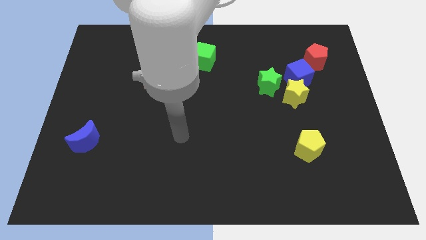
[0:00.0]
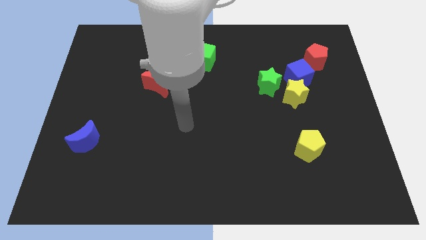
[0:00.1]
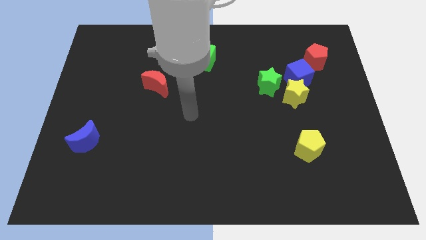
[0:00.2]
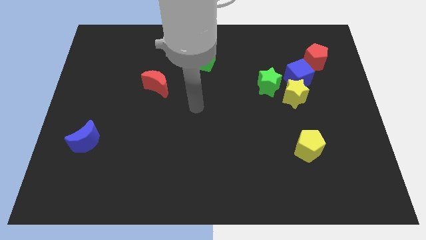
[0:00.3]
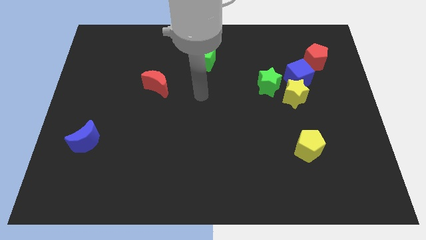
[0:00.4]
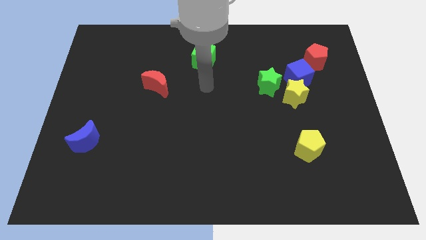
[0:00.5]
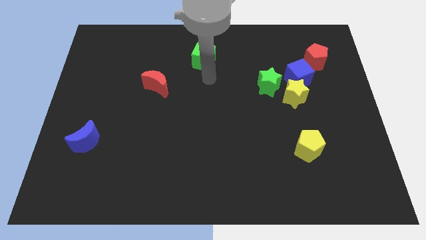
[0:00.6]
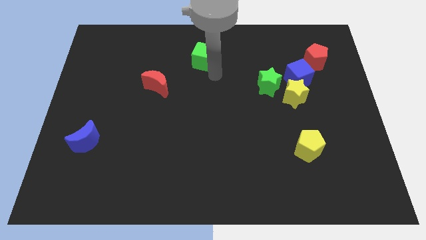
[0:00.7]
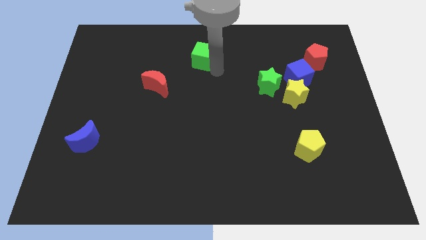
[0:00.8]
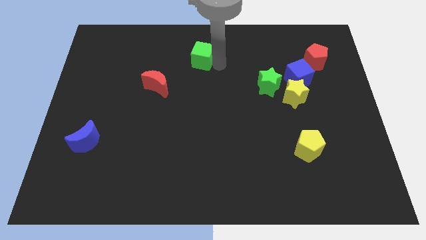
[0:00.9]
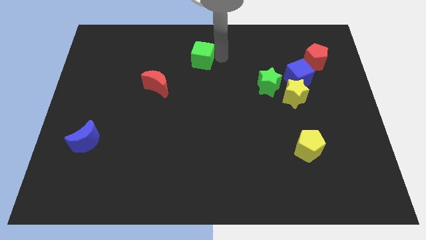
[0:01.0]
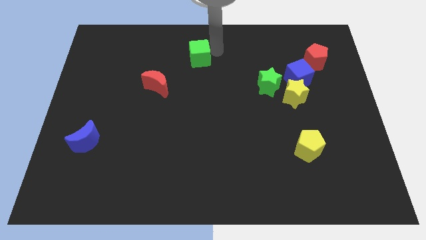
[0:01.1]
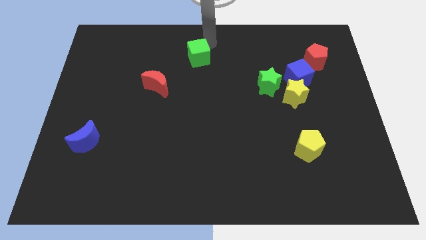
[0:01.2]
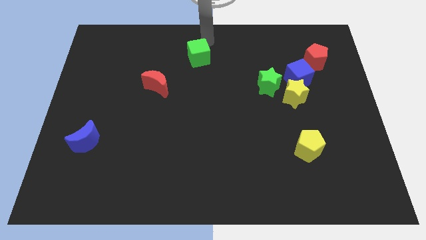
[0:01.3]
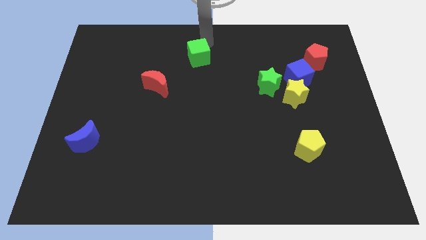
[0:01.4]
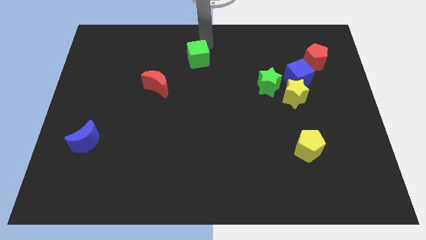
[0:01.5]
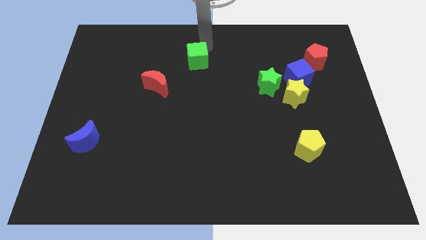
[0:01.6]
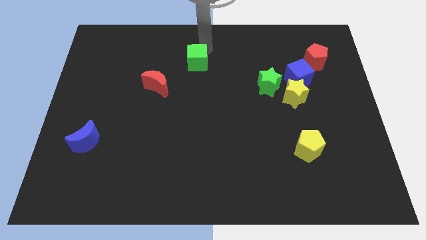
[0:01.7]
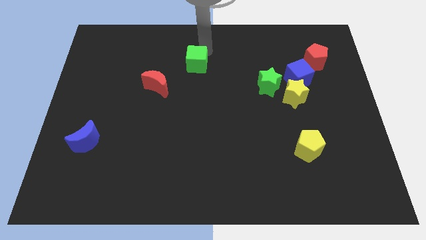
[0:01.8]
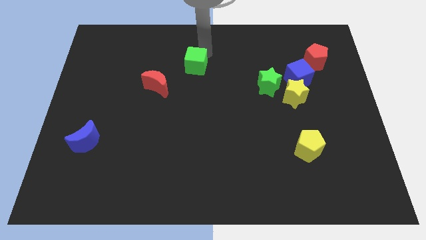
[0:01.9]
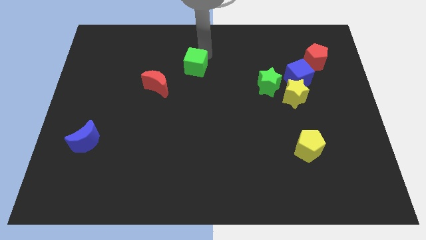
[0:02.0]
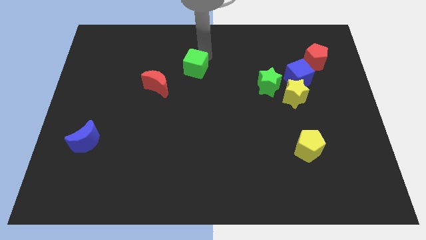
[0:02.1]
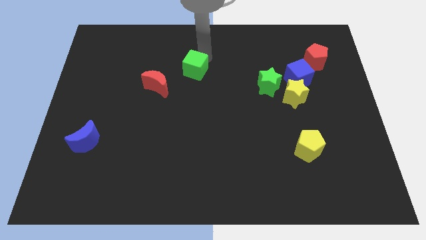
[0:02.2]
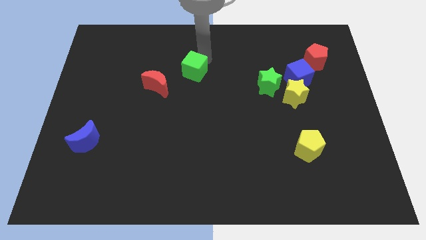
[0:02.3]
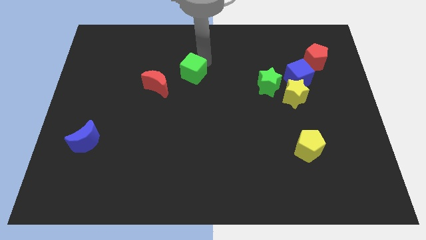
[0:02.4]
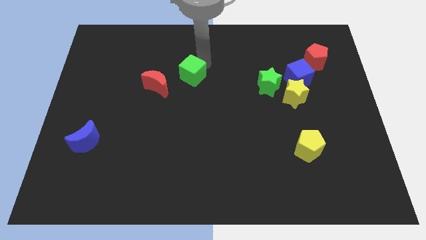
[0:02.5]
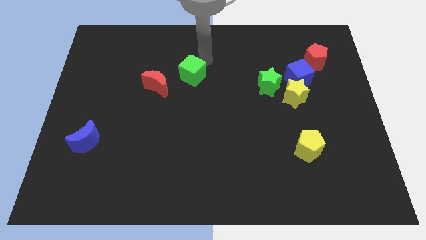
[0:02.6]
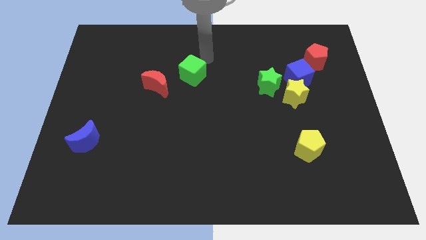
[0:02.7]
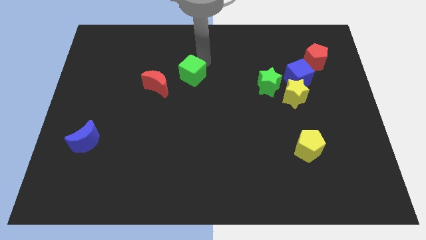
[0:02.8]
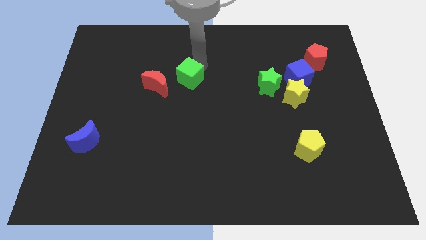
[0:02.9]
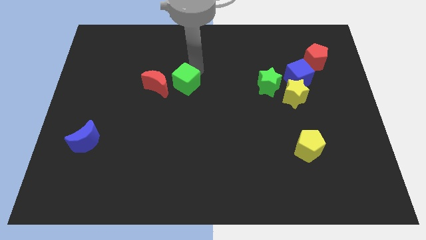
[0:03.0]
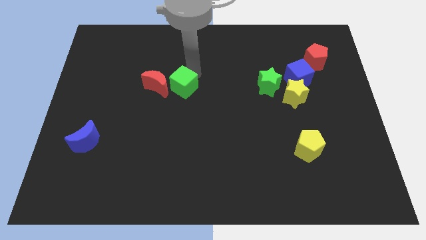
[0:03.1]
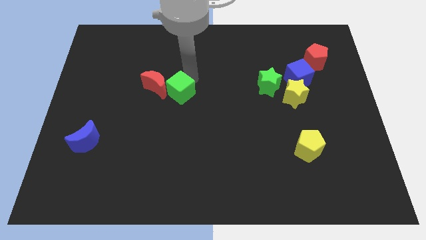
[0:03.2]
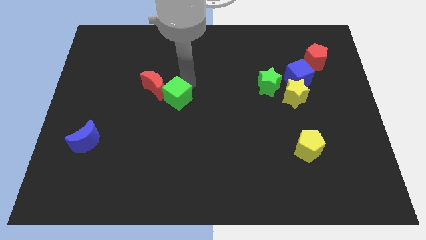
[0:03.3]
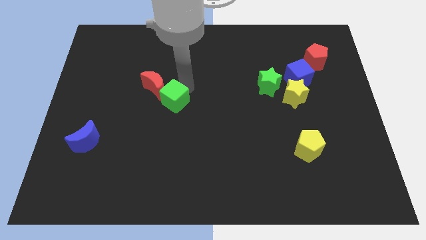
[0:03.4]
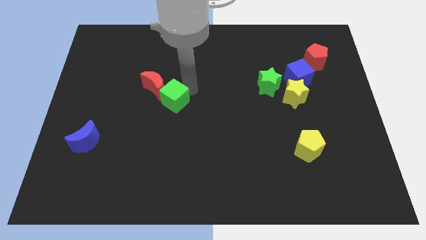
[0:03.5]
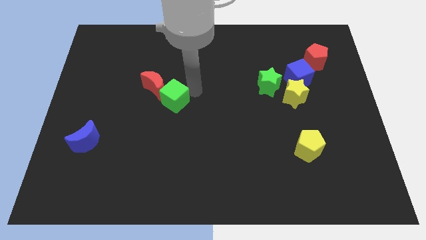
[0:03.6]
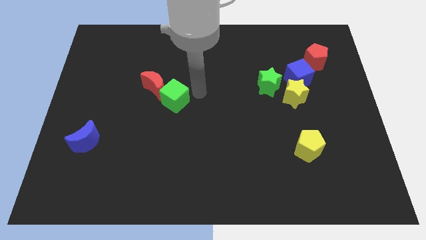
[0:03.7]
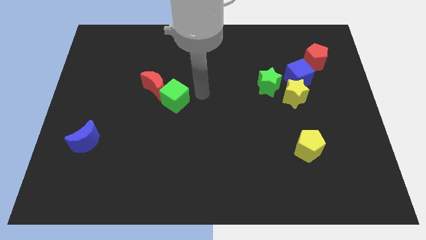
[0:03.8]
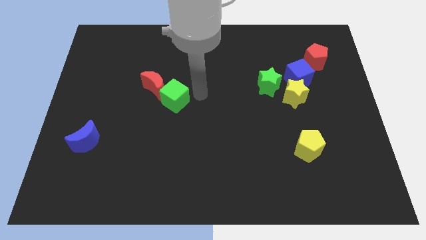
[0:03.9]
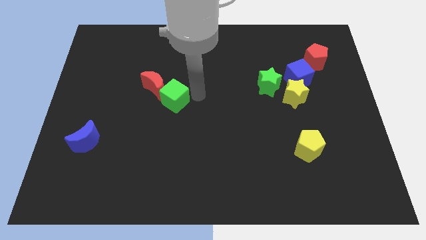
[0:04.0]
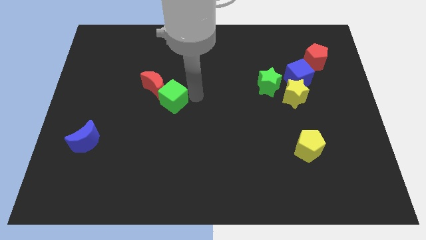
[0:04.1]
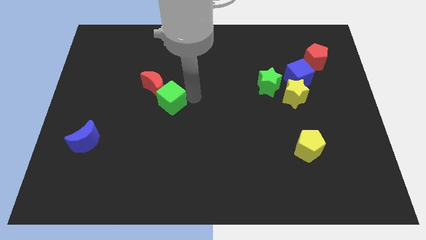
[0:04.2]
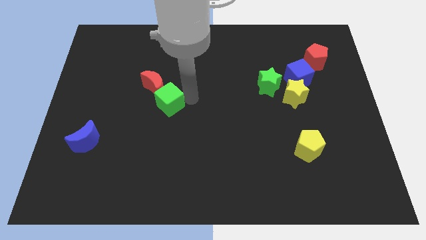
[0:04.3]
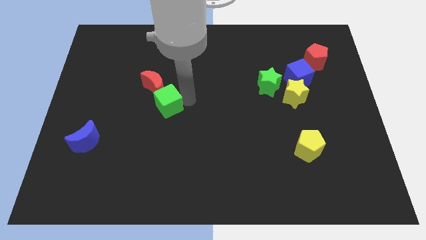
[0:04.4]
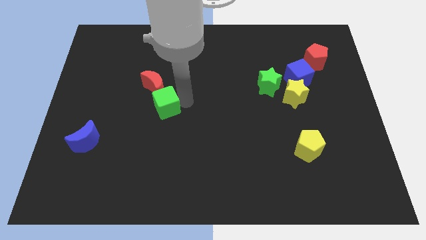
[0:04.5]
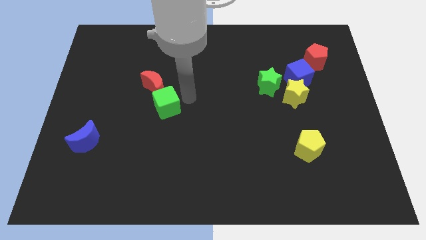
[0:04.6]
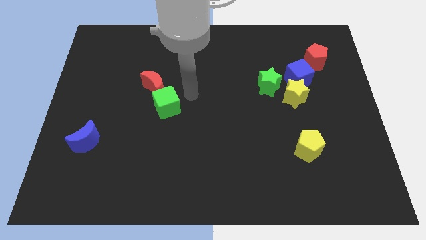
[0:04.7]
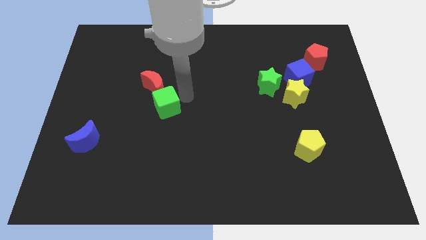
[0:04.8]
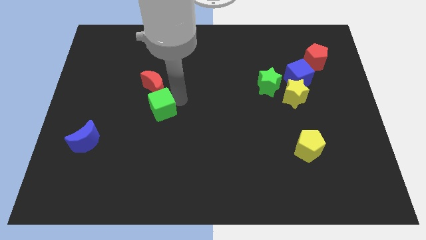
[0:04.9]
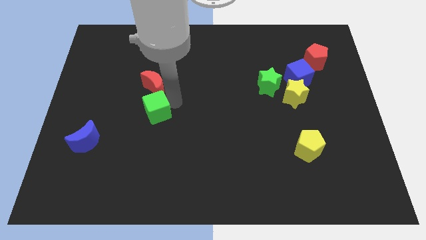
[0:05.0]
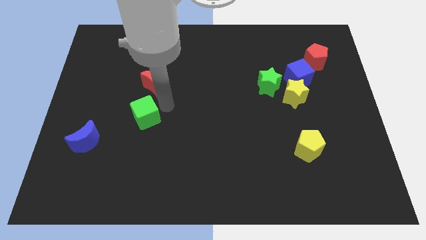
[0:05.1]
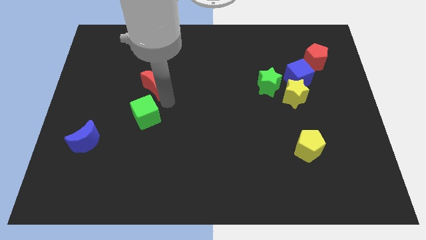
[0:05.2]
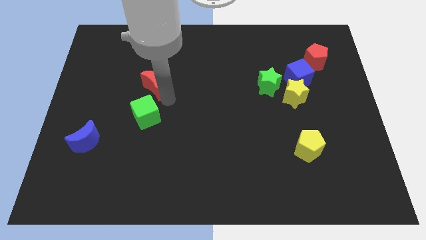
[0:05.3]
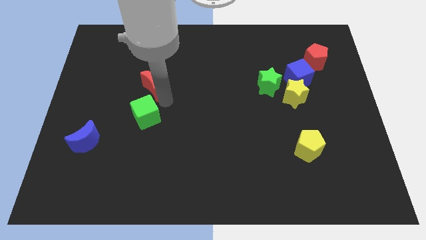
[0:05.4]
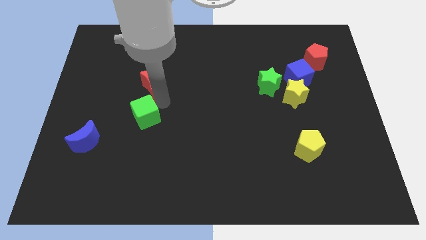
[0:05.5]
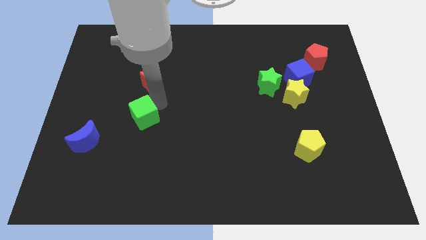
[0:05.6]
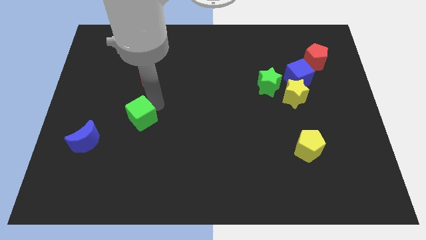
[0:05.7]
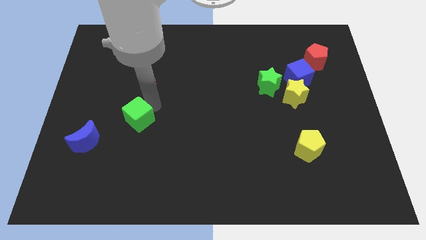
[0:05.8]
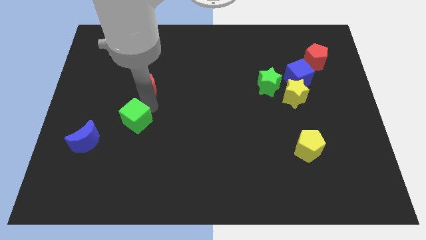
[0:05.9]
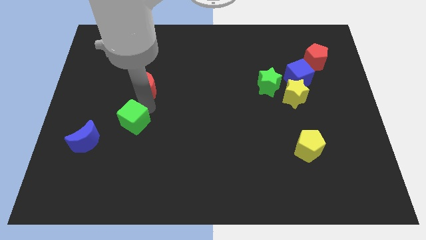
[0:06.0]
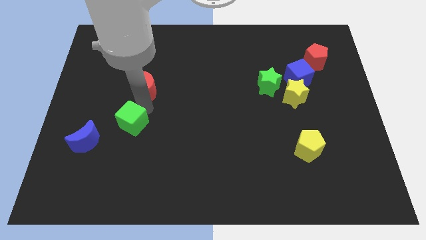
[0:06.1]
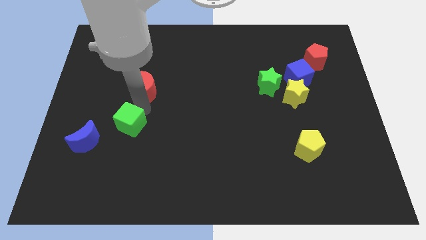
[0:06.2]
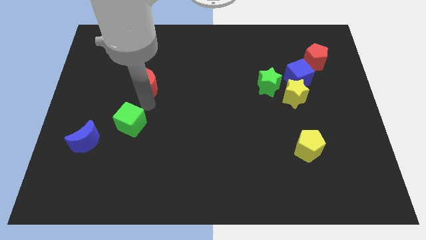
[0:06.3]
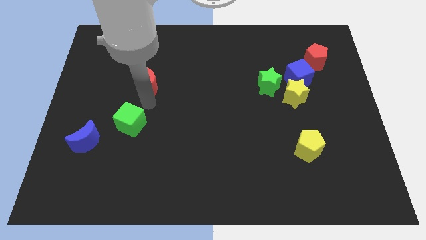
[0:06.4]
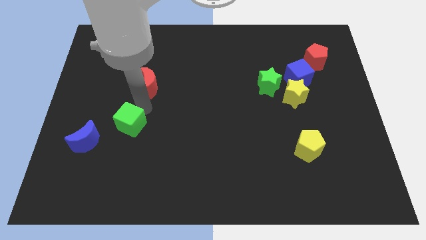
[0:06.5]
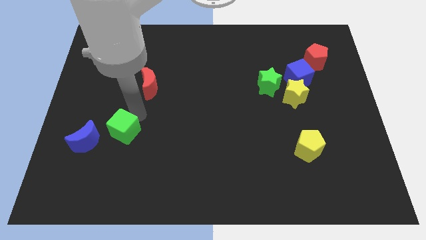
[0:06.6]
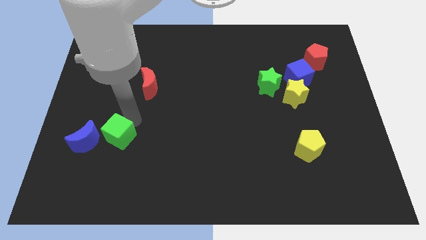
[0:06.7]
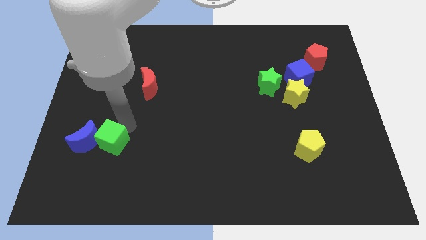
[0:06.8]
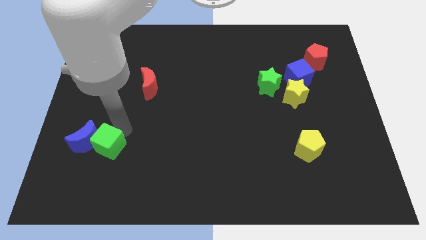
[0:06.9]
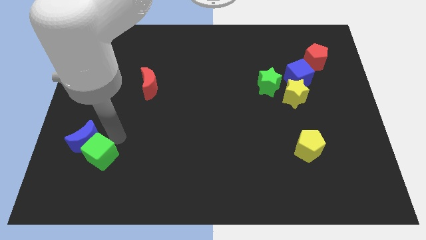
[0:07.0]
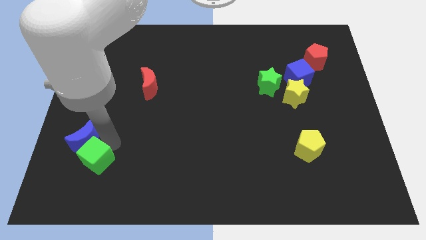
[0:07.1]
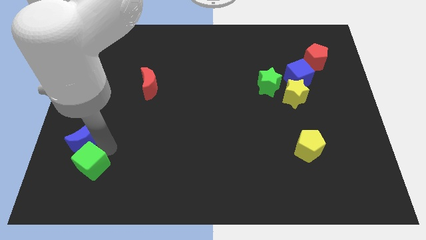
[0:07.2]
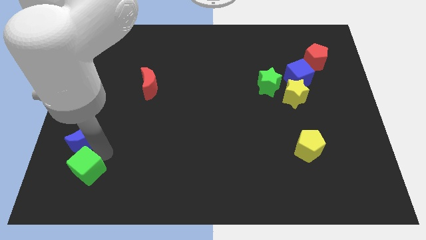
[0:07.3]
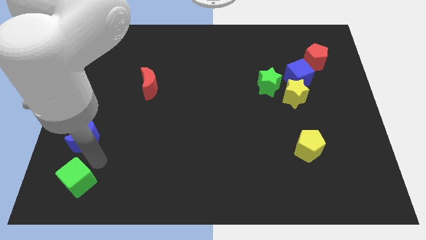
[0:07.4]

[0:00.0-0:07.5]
put the green cube to the lower left corner
